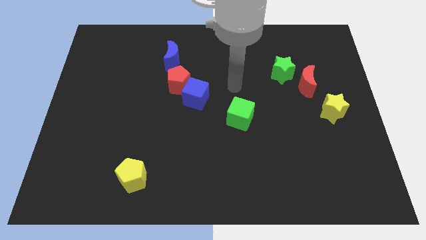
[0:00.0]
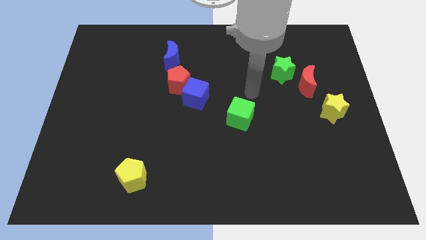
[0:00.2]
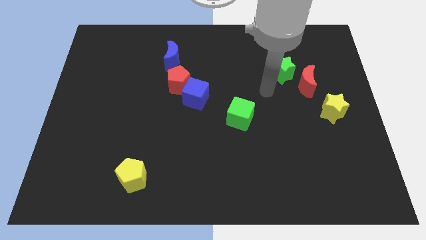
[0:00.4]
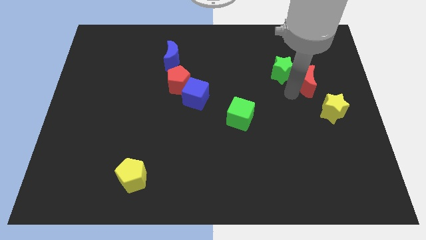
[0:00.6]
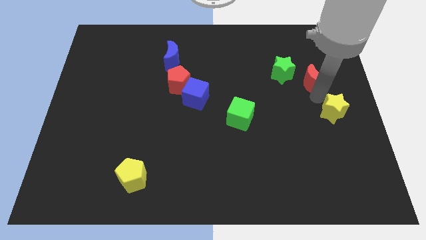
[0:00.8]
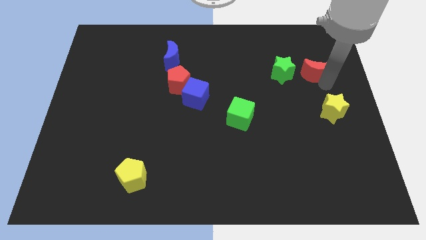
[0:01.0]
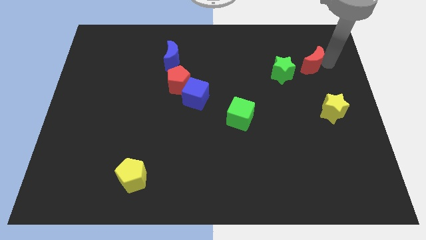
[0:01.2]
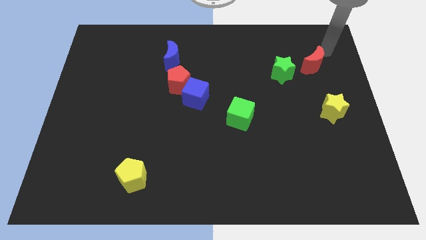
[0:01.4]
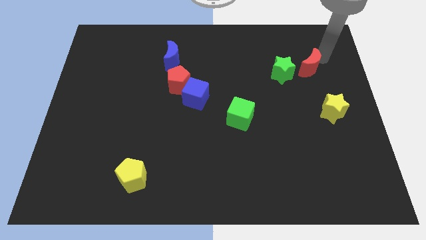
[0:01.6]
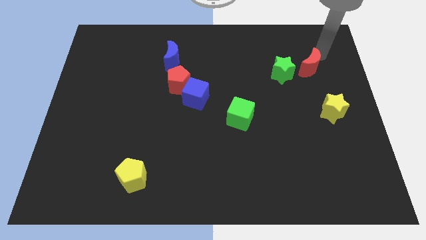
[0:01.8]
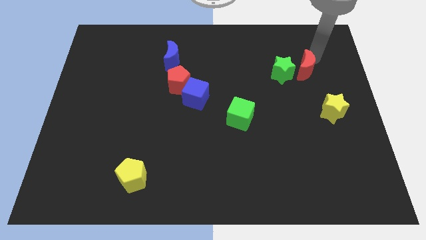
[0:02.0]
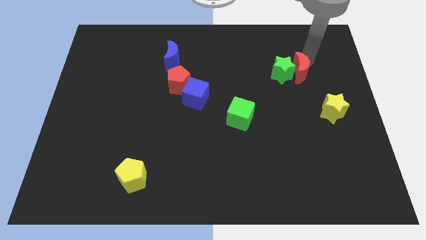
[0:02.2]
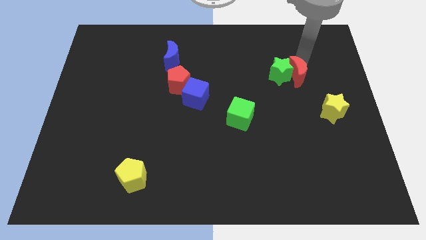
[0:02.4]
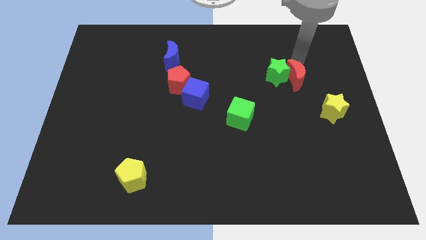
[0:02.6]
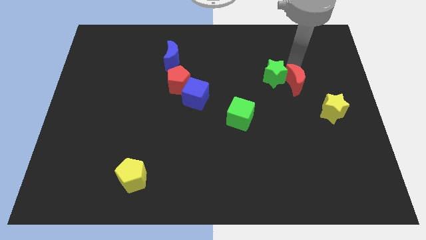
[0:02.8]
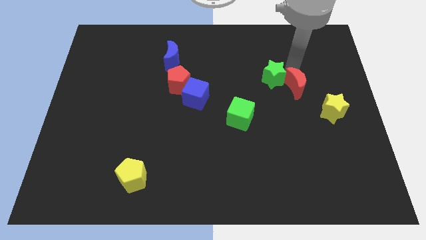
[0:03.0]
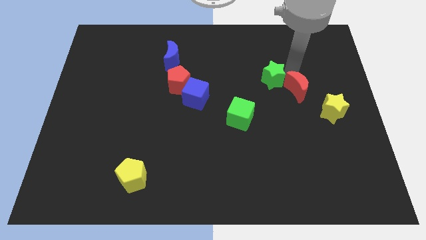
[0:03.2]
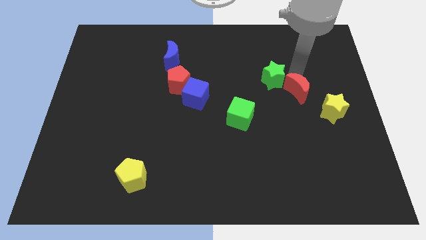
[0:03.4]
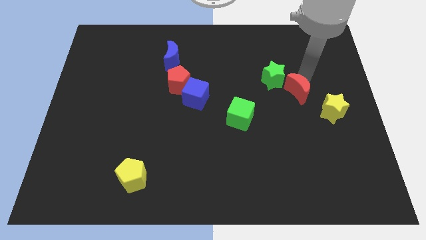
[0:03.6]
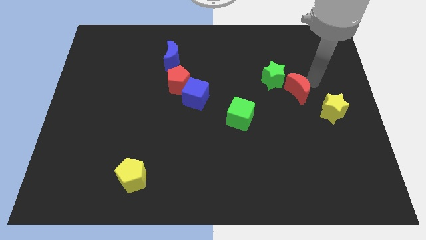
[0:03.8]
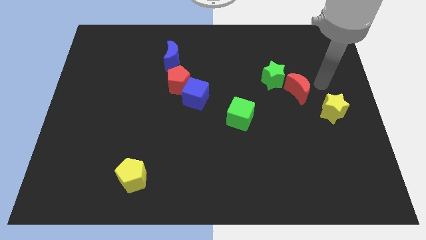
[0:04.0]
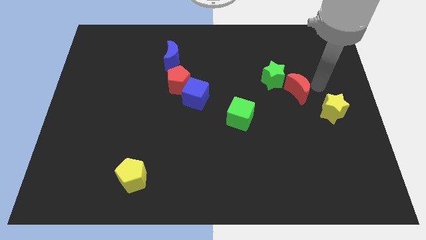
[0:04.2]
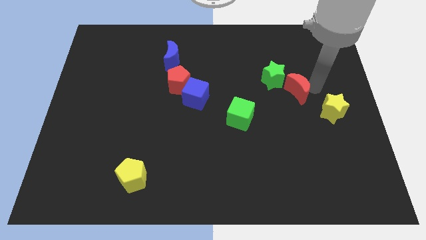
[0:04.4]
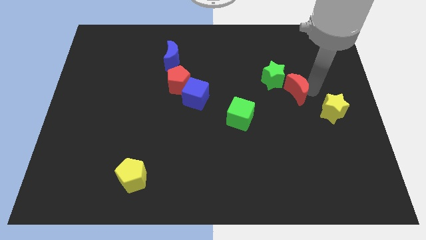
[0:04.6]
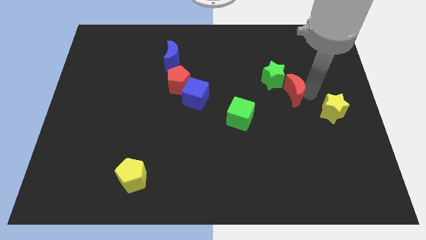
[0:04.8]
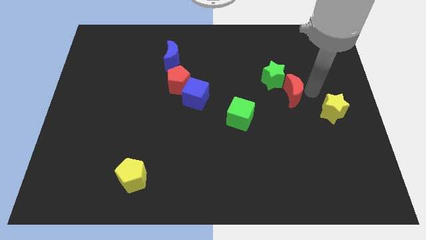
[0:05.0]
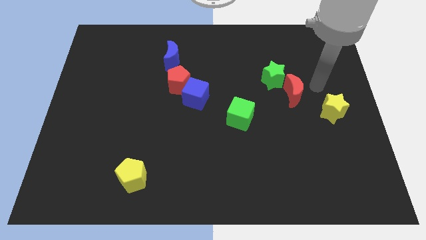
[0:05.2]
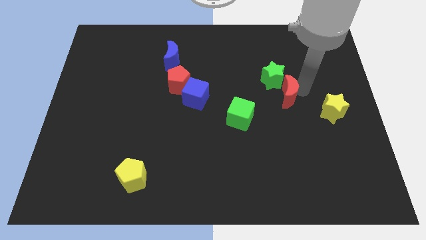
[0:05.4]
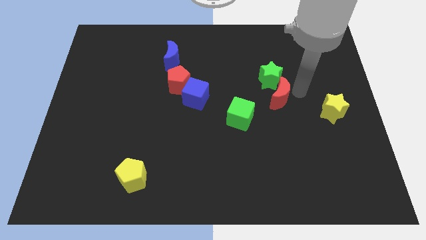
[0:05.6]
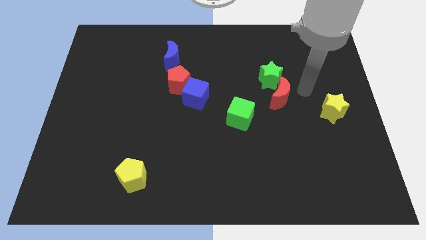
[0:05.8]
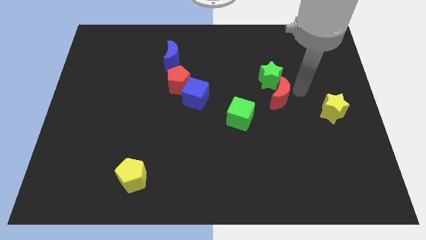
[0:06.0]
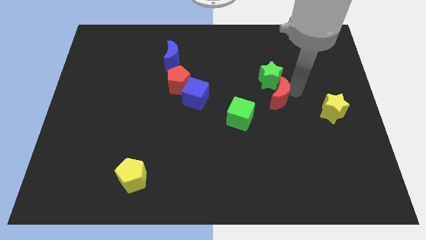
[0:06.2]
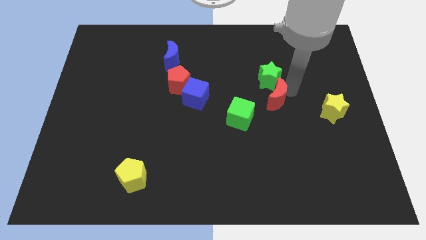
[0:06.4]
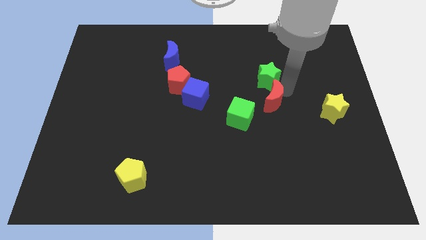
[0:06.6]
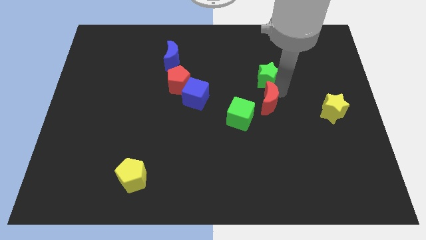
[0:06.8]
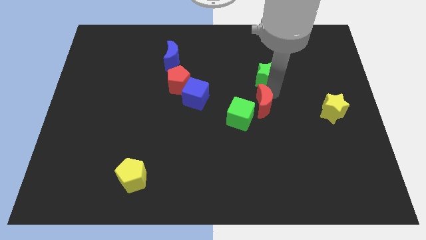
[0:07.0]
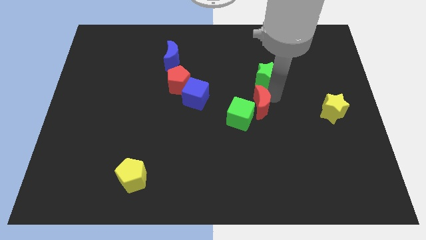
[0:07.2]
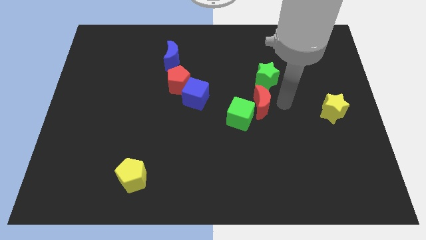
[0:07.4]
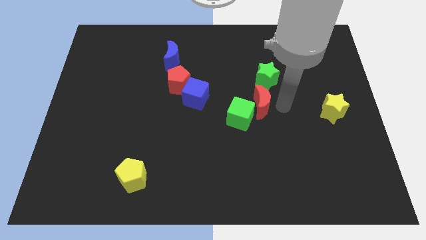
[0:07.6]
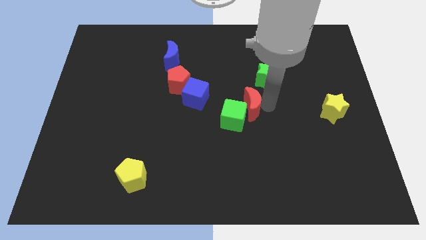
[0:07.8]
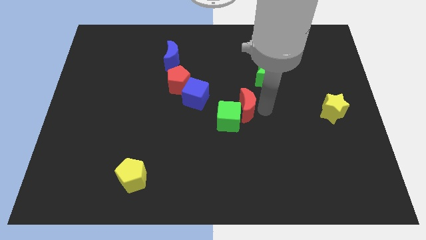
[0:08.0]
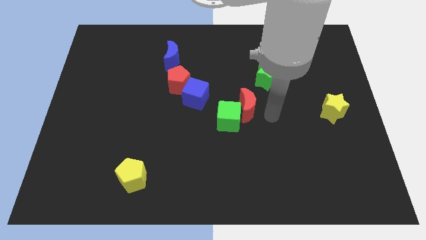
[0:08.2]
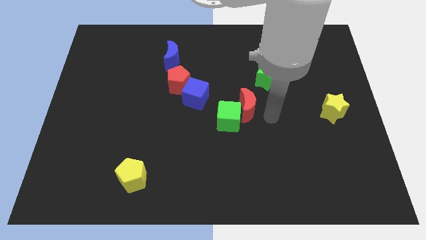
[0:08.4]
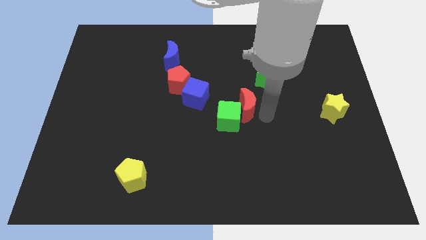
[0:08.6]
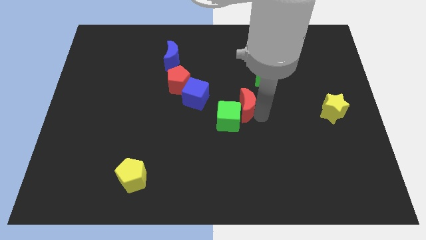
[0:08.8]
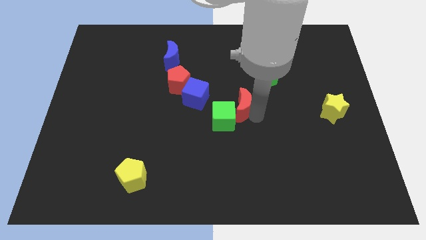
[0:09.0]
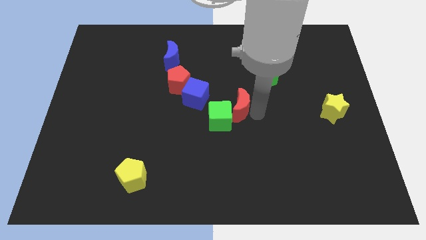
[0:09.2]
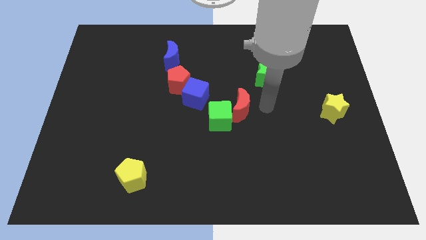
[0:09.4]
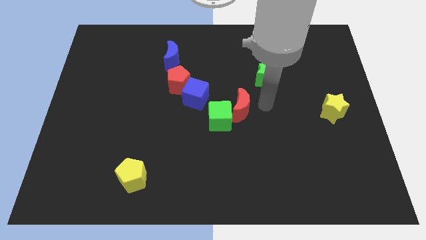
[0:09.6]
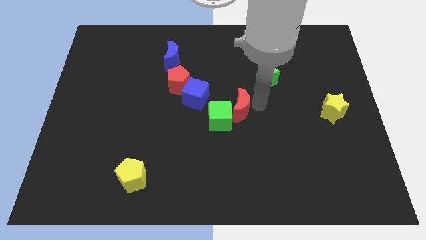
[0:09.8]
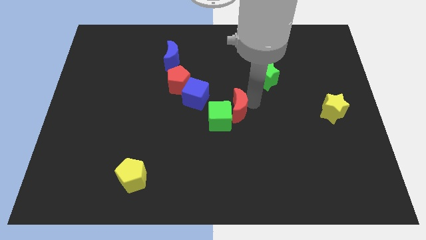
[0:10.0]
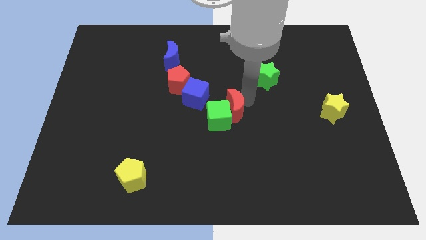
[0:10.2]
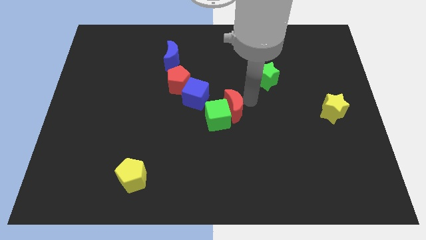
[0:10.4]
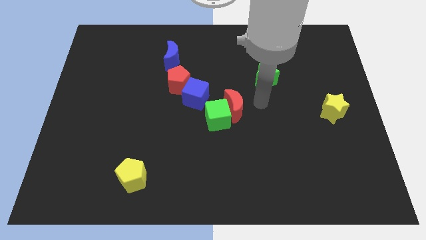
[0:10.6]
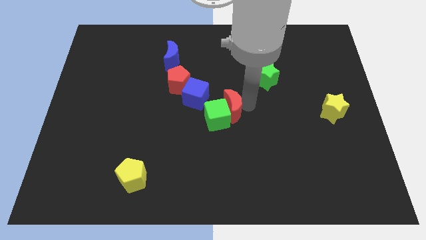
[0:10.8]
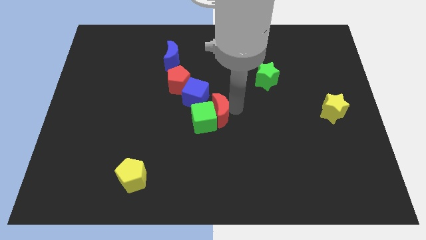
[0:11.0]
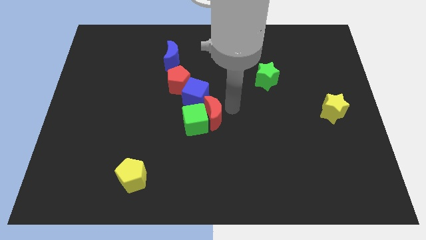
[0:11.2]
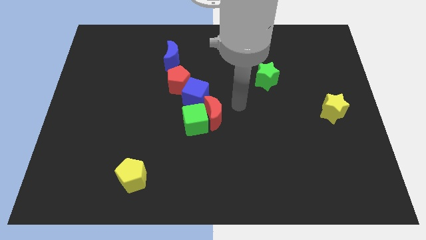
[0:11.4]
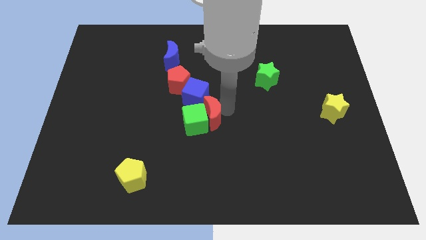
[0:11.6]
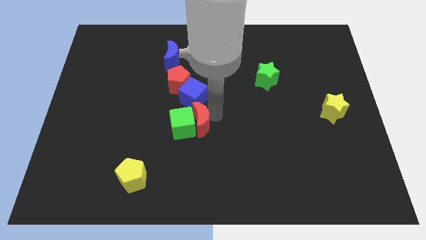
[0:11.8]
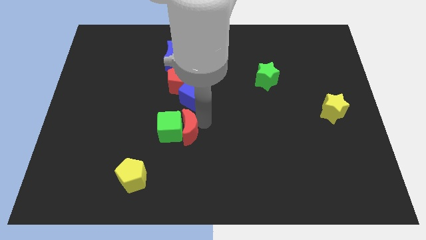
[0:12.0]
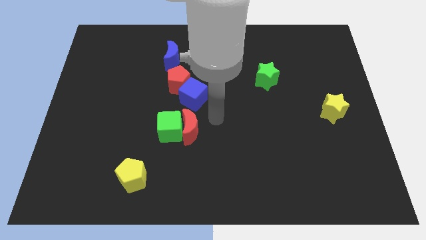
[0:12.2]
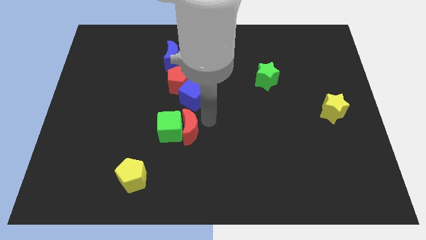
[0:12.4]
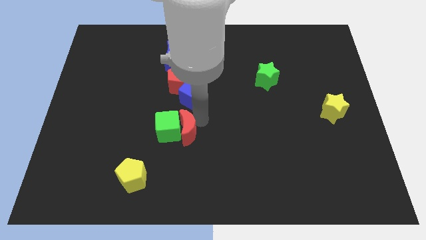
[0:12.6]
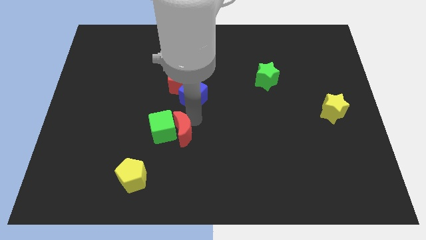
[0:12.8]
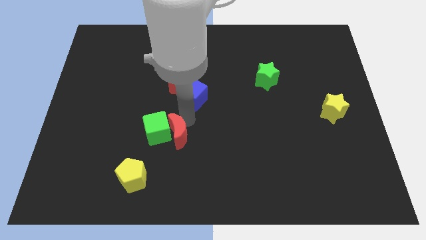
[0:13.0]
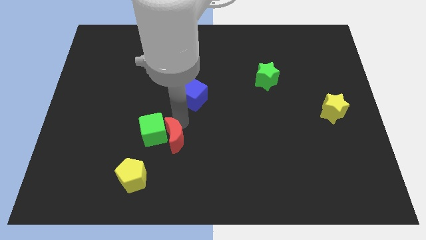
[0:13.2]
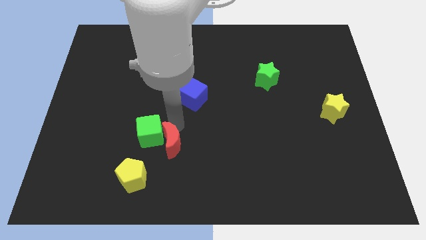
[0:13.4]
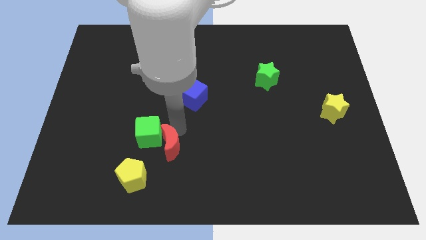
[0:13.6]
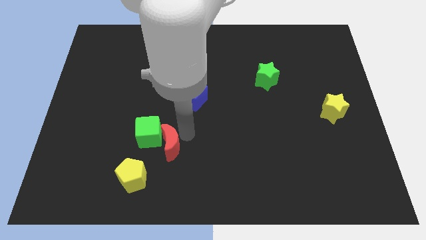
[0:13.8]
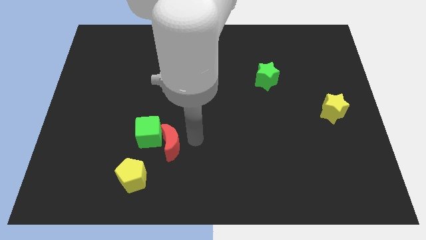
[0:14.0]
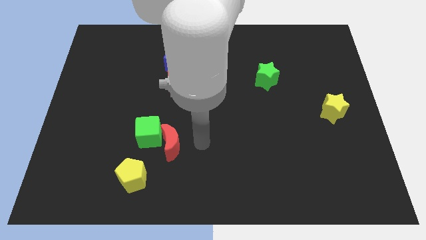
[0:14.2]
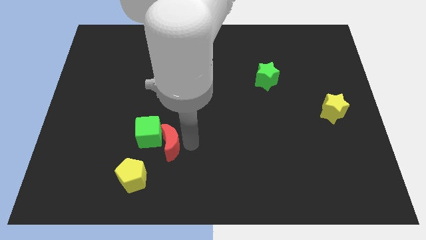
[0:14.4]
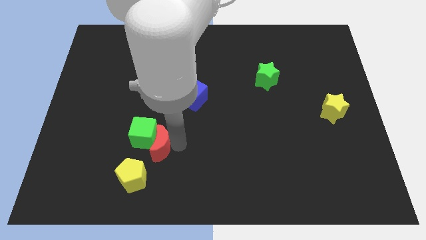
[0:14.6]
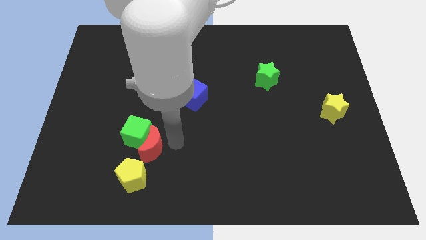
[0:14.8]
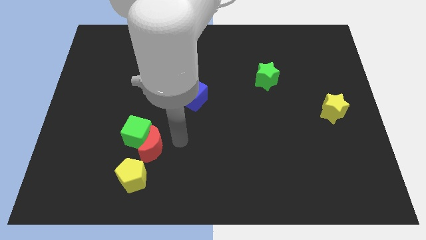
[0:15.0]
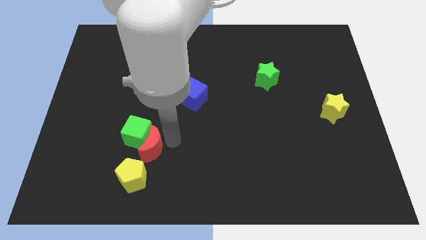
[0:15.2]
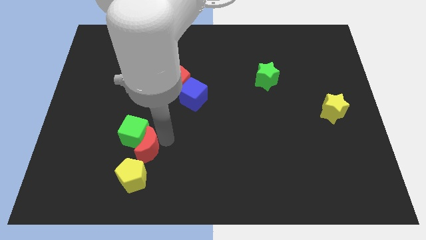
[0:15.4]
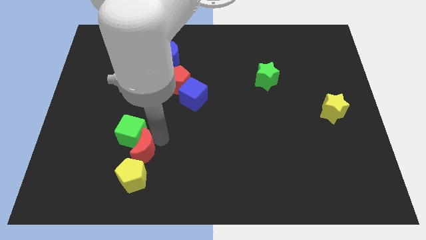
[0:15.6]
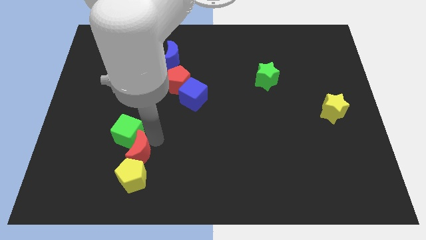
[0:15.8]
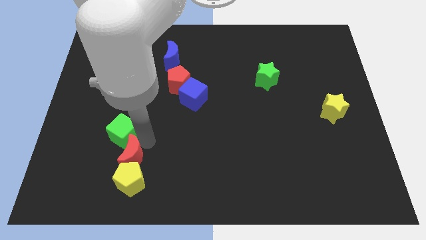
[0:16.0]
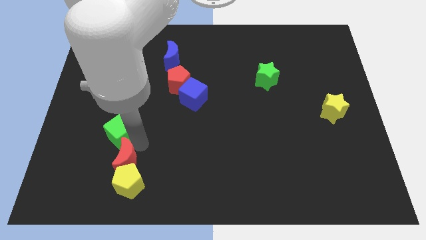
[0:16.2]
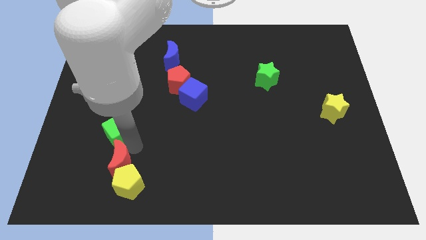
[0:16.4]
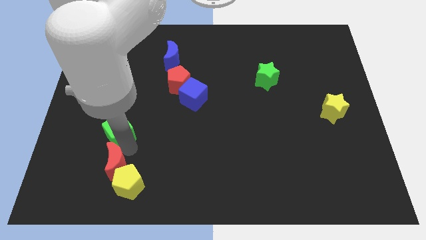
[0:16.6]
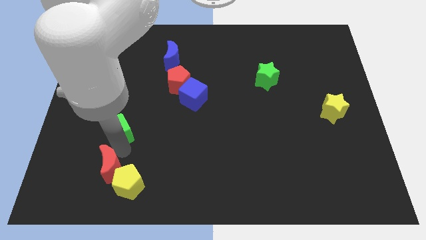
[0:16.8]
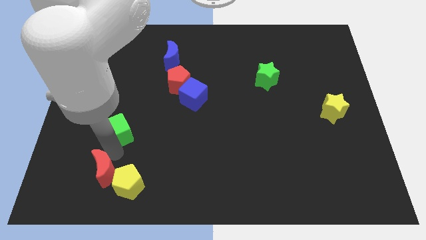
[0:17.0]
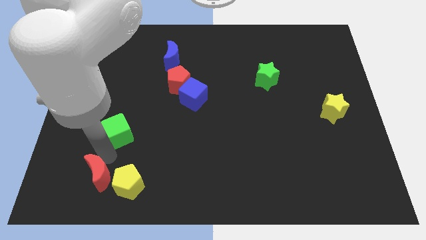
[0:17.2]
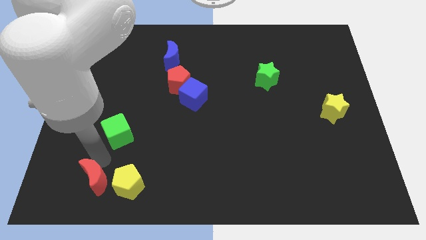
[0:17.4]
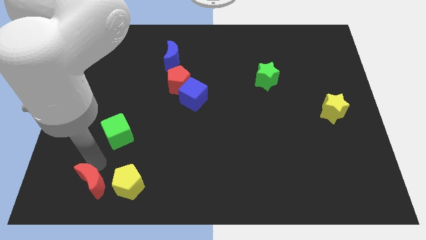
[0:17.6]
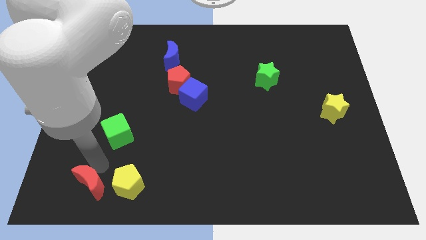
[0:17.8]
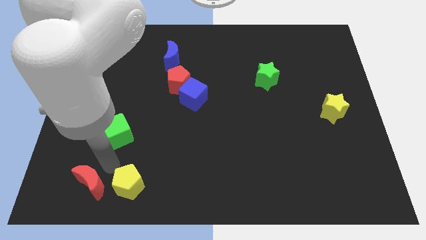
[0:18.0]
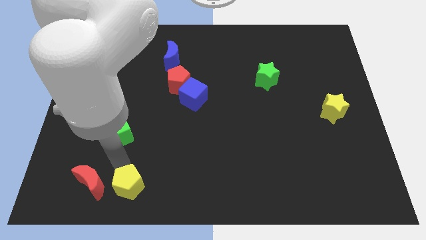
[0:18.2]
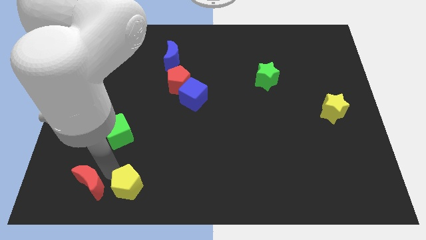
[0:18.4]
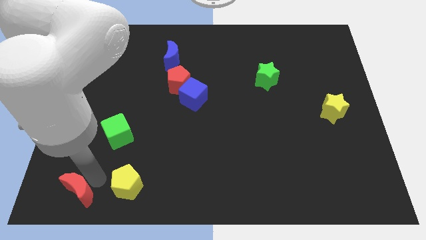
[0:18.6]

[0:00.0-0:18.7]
move the red moon to the lower left corner
